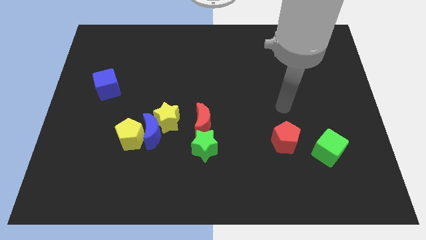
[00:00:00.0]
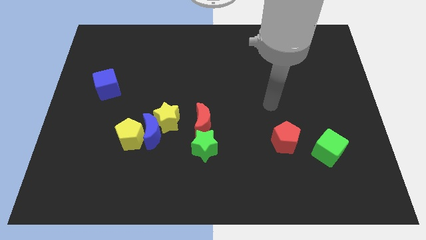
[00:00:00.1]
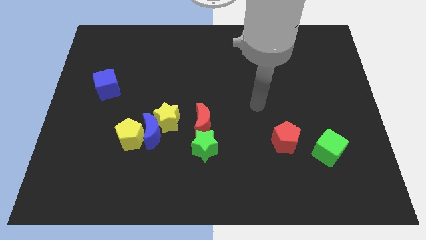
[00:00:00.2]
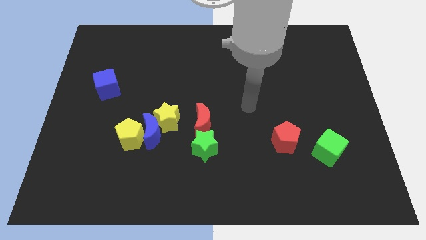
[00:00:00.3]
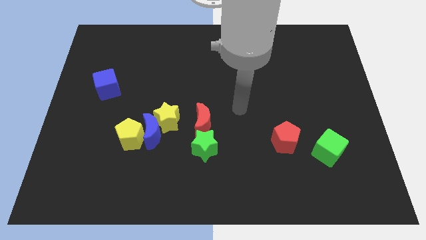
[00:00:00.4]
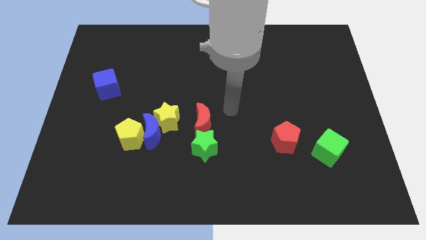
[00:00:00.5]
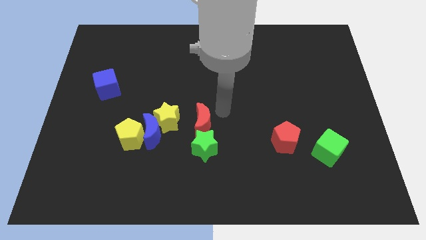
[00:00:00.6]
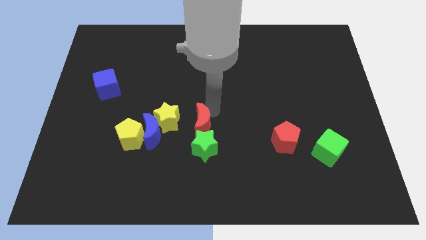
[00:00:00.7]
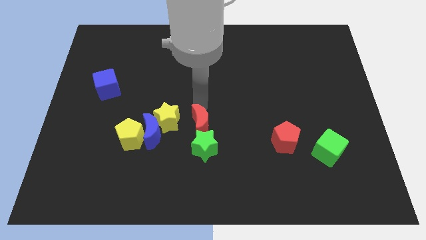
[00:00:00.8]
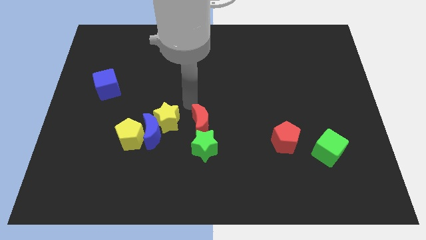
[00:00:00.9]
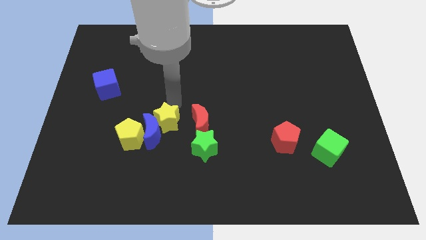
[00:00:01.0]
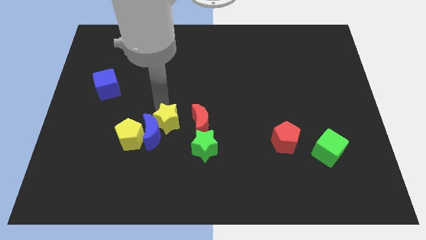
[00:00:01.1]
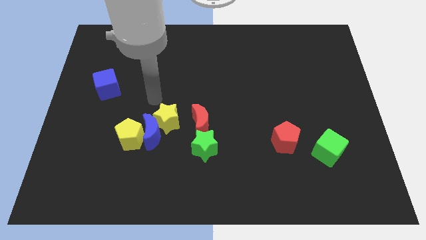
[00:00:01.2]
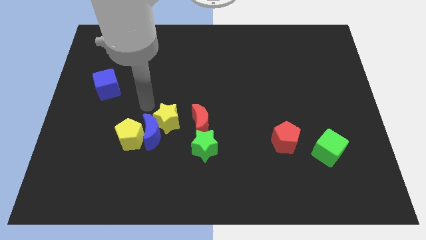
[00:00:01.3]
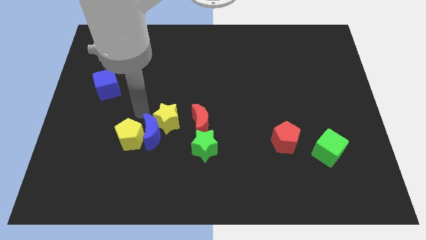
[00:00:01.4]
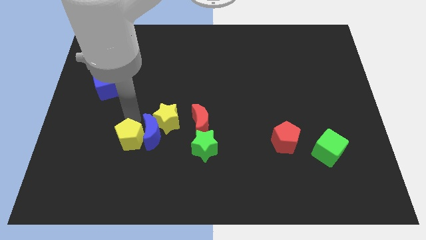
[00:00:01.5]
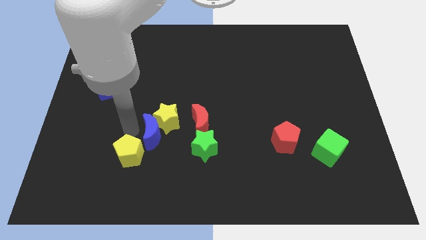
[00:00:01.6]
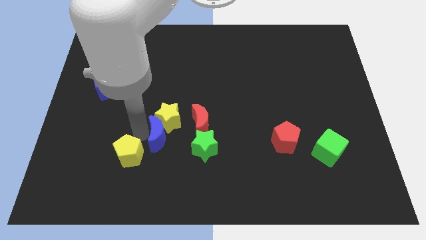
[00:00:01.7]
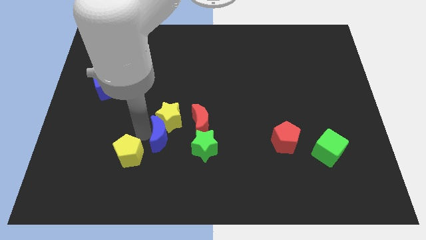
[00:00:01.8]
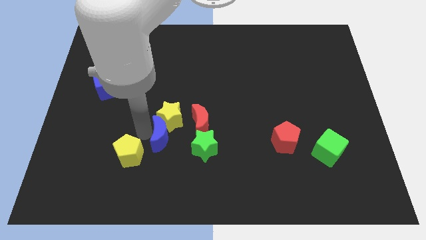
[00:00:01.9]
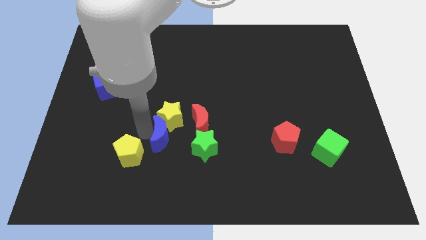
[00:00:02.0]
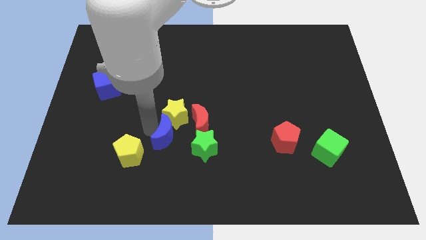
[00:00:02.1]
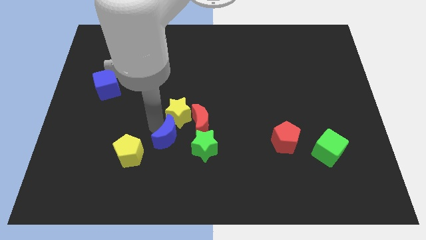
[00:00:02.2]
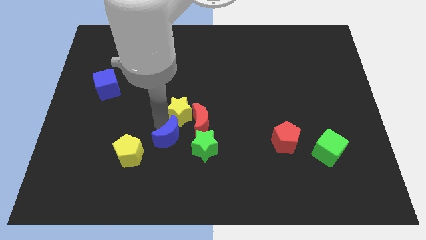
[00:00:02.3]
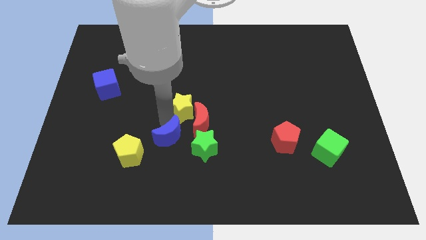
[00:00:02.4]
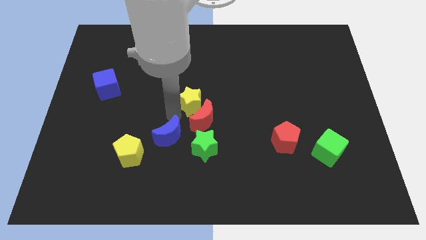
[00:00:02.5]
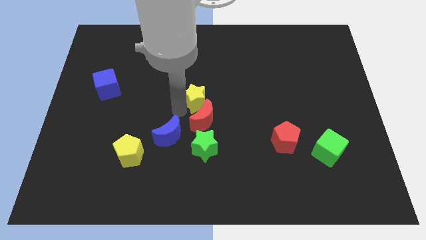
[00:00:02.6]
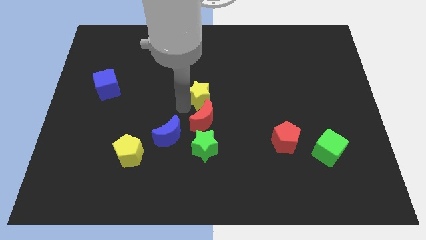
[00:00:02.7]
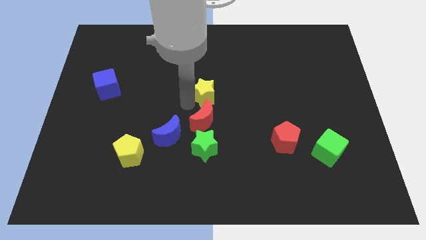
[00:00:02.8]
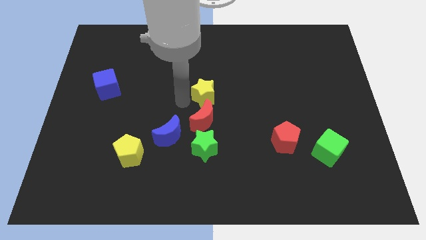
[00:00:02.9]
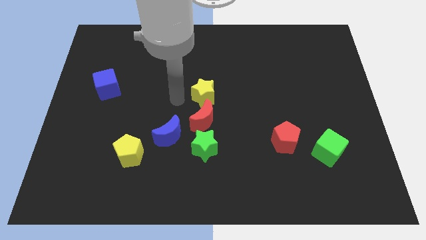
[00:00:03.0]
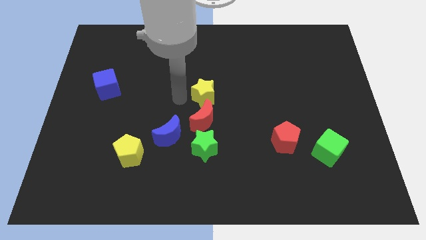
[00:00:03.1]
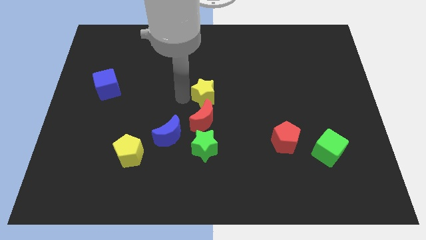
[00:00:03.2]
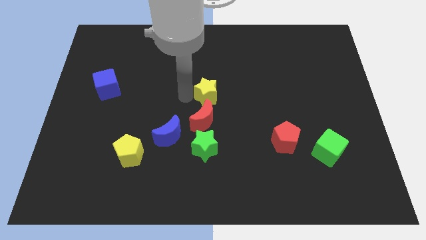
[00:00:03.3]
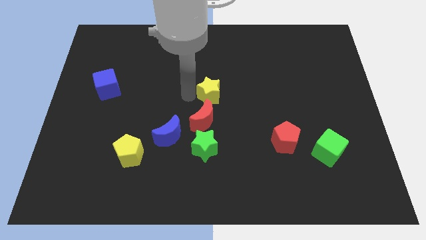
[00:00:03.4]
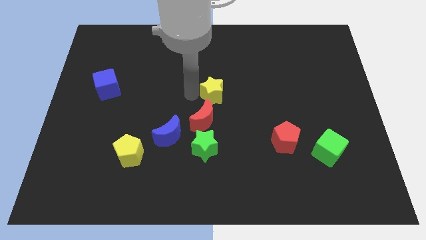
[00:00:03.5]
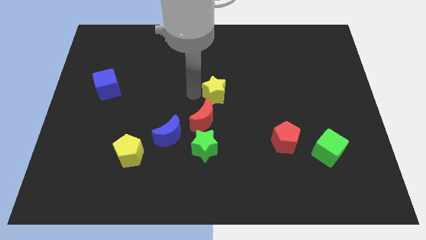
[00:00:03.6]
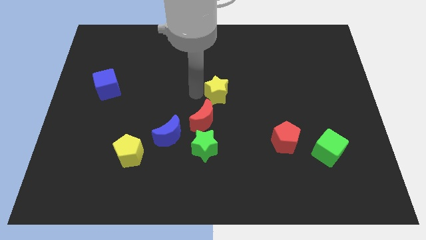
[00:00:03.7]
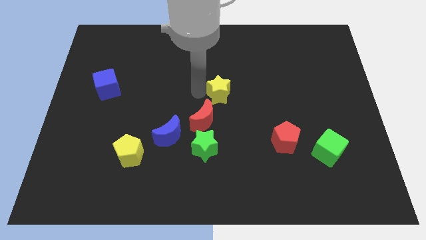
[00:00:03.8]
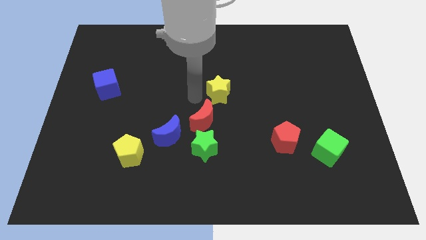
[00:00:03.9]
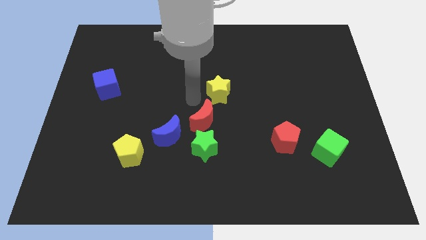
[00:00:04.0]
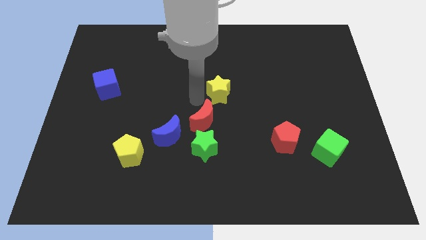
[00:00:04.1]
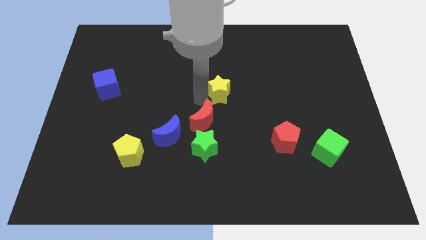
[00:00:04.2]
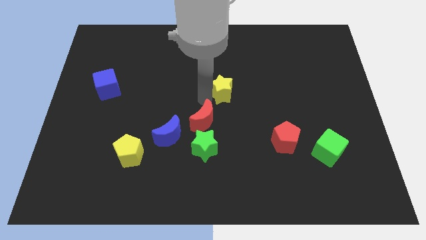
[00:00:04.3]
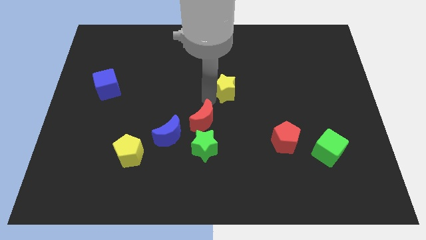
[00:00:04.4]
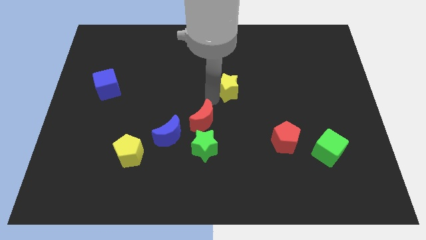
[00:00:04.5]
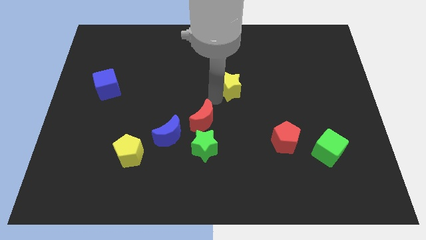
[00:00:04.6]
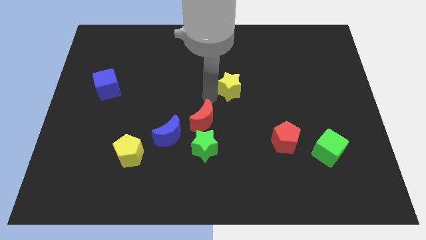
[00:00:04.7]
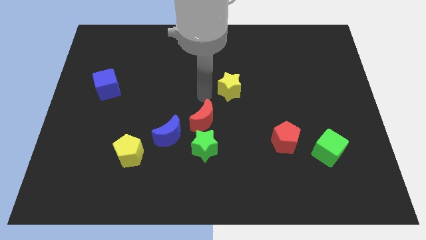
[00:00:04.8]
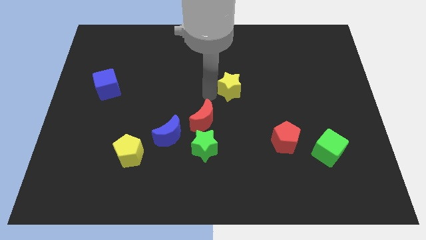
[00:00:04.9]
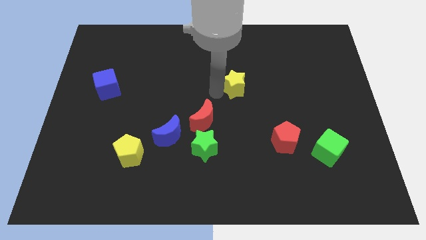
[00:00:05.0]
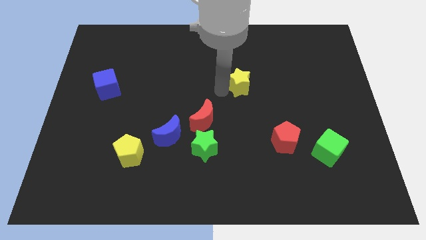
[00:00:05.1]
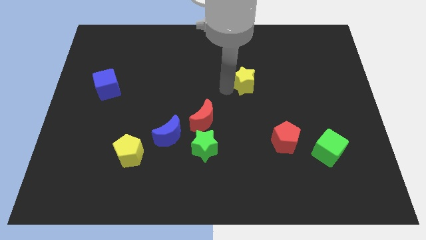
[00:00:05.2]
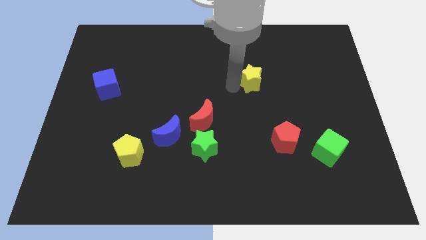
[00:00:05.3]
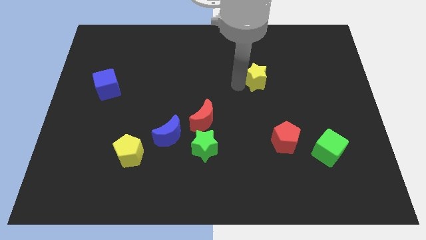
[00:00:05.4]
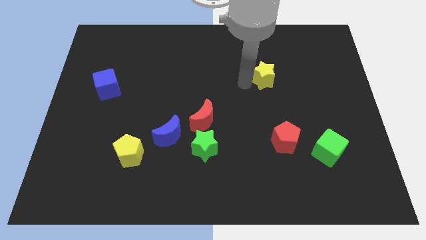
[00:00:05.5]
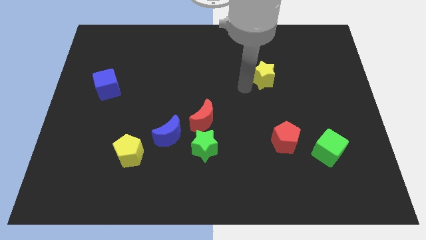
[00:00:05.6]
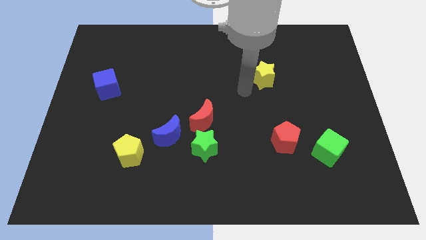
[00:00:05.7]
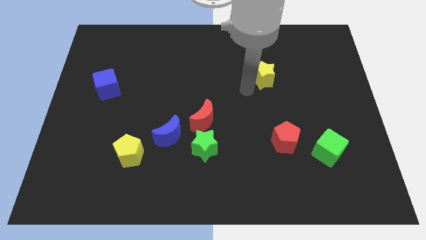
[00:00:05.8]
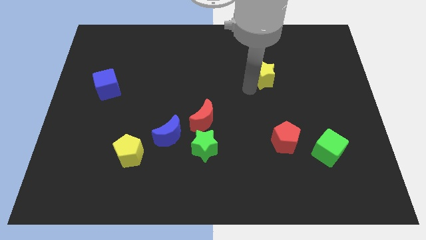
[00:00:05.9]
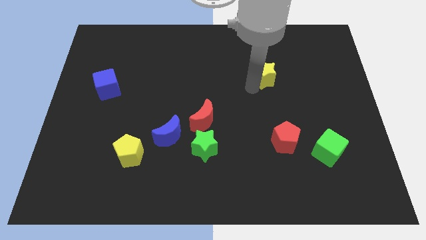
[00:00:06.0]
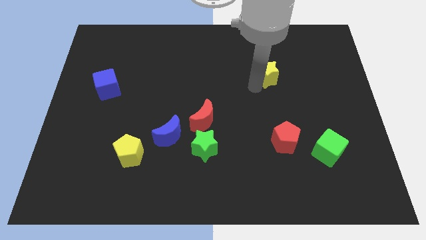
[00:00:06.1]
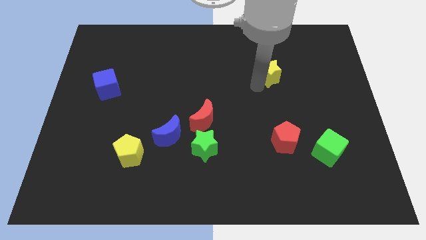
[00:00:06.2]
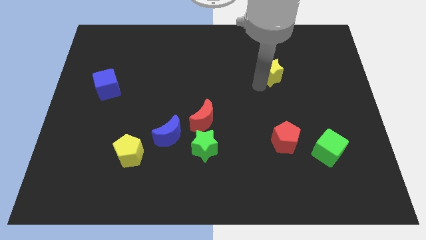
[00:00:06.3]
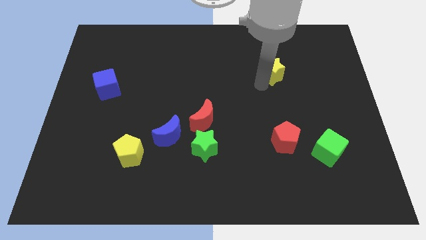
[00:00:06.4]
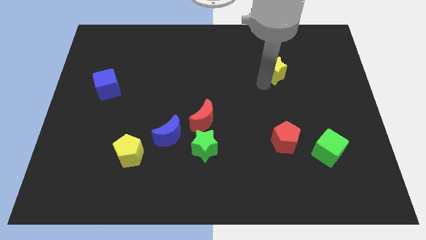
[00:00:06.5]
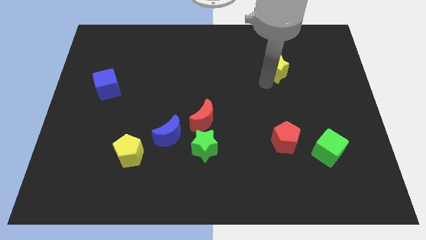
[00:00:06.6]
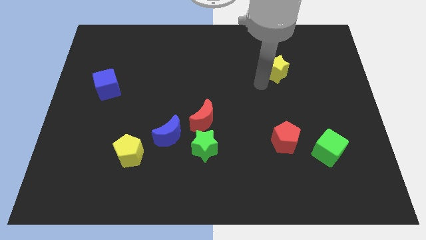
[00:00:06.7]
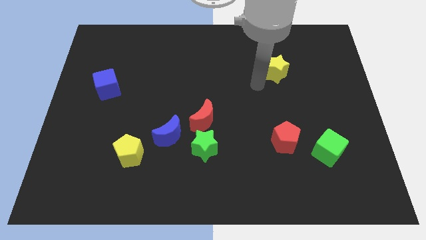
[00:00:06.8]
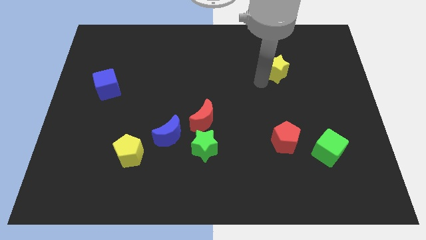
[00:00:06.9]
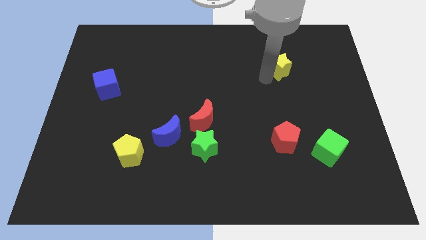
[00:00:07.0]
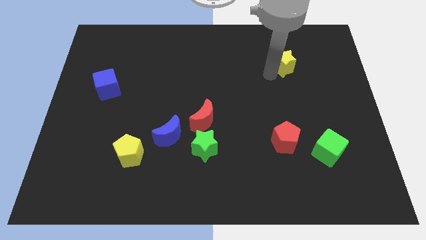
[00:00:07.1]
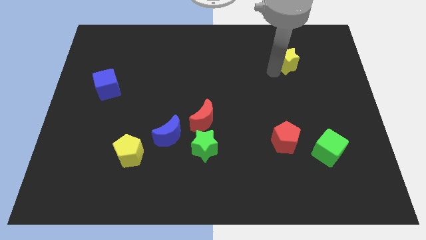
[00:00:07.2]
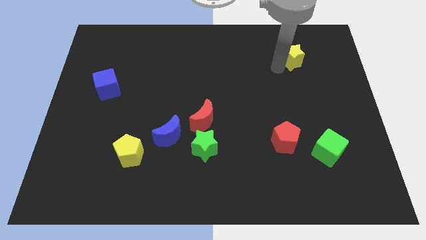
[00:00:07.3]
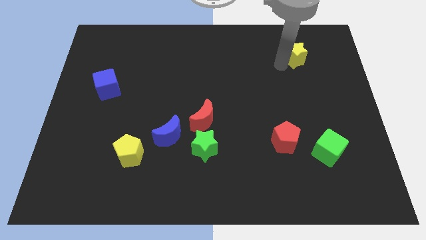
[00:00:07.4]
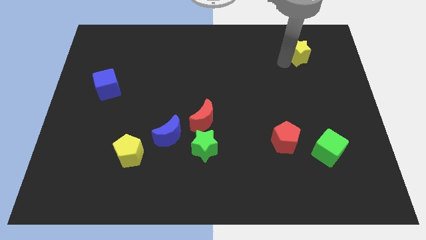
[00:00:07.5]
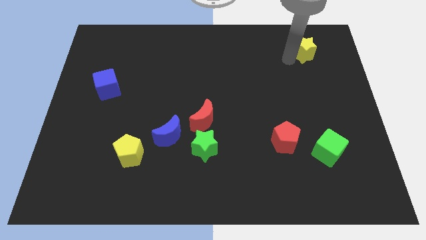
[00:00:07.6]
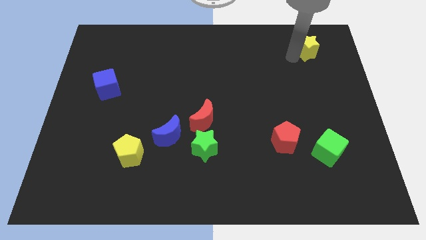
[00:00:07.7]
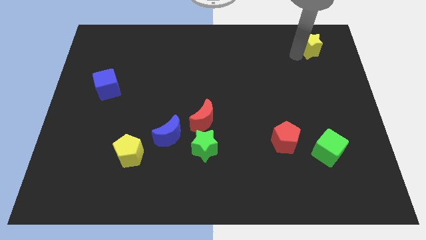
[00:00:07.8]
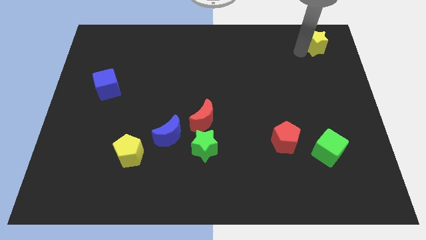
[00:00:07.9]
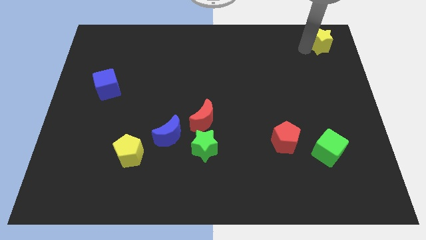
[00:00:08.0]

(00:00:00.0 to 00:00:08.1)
move the yellow star to the top right of the board
